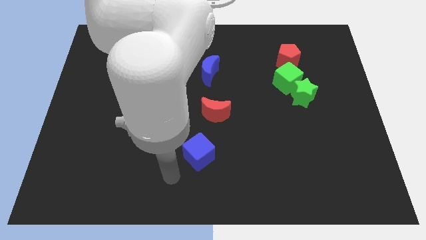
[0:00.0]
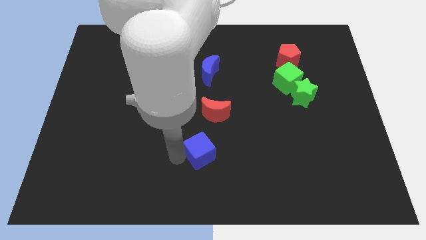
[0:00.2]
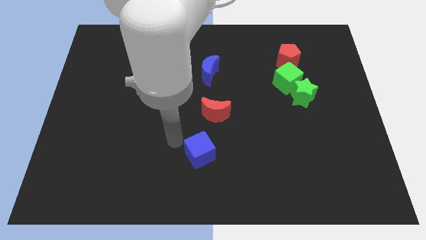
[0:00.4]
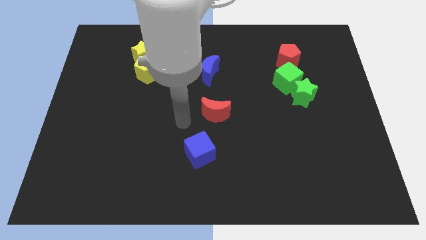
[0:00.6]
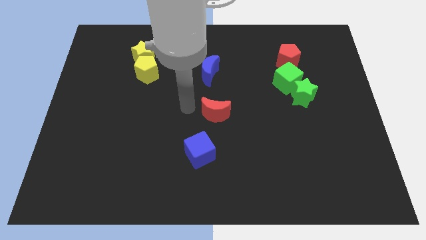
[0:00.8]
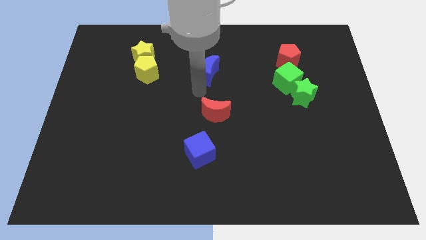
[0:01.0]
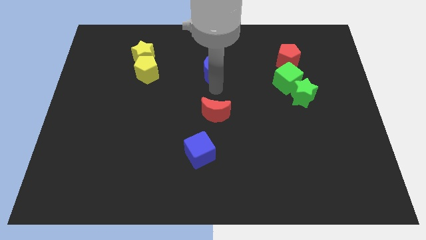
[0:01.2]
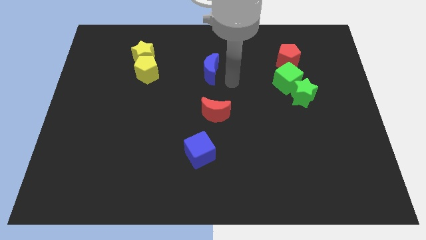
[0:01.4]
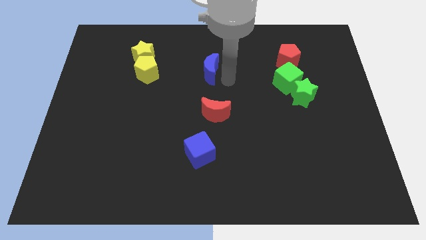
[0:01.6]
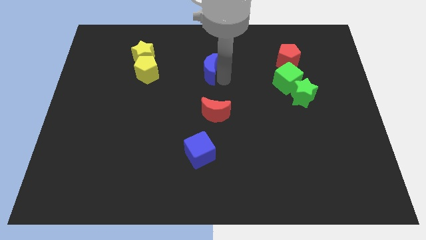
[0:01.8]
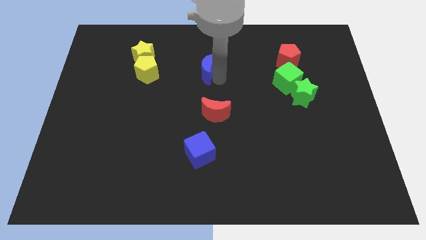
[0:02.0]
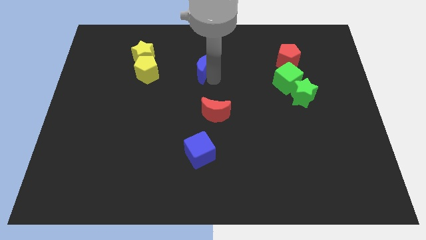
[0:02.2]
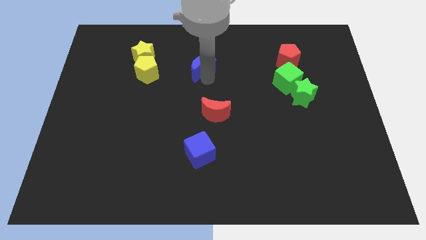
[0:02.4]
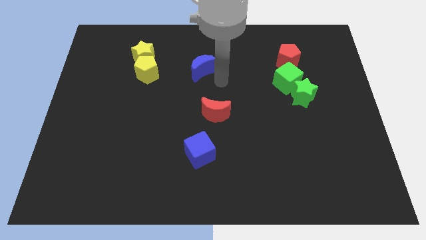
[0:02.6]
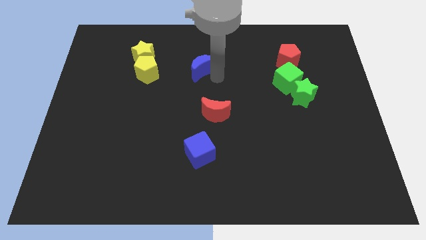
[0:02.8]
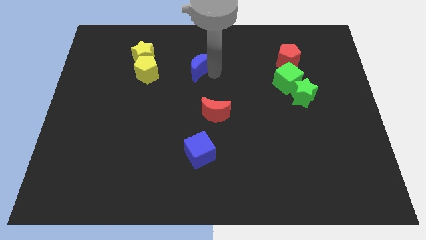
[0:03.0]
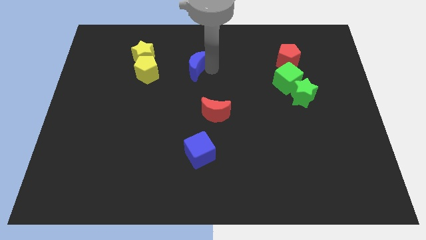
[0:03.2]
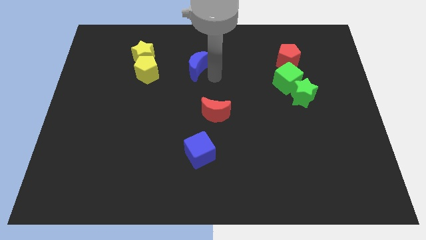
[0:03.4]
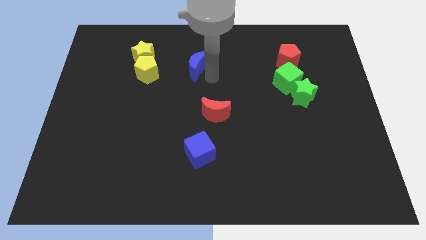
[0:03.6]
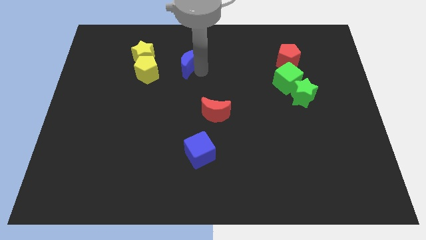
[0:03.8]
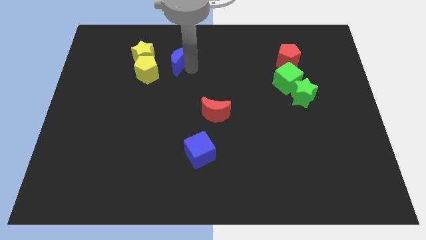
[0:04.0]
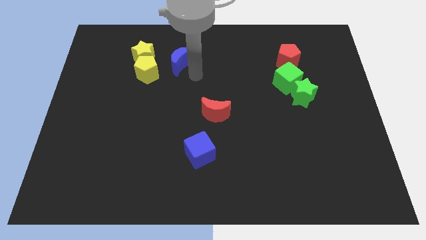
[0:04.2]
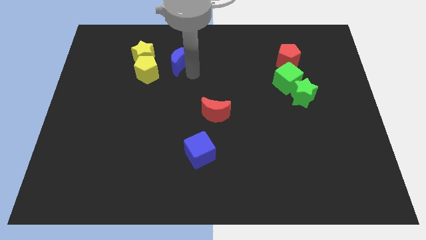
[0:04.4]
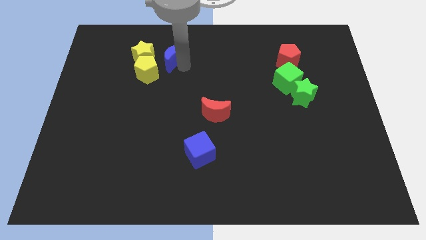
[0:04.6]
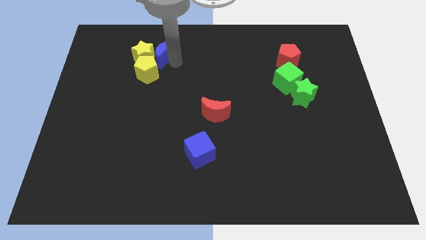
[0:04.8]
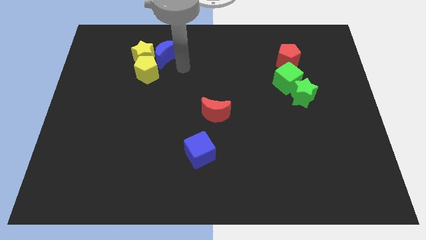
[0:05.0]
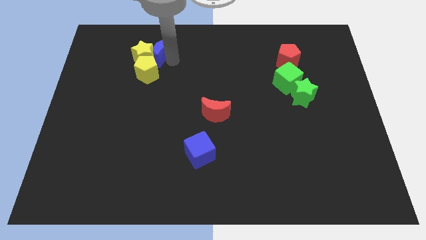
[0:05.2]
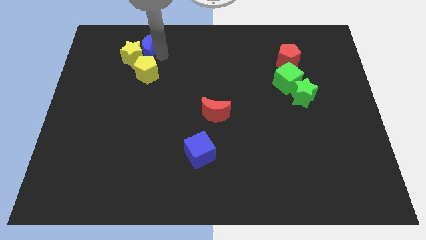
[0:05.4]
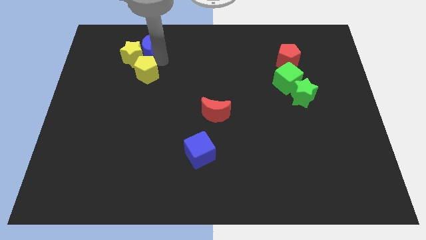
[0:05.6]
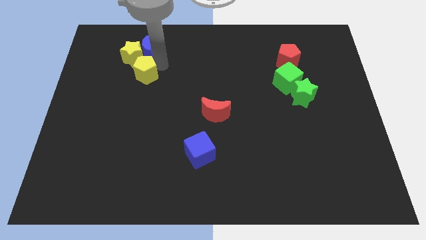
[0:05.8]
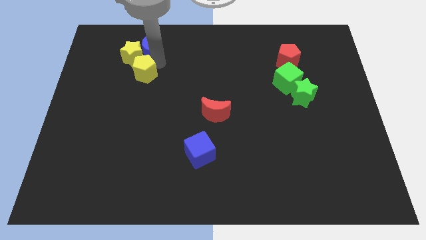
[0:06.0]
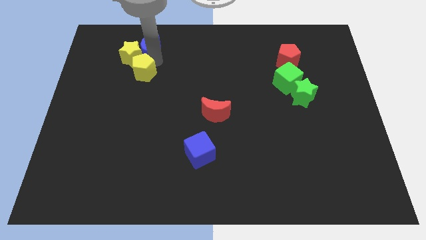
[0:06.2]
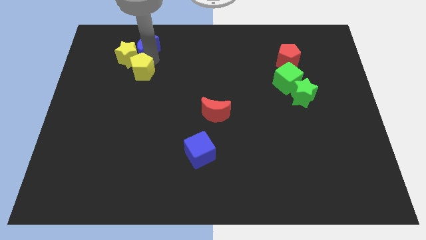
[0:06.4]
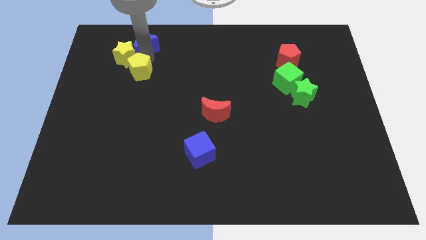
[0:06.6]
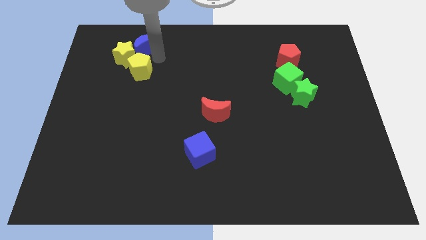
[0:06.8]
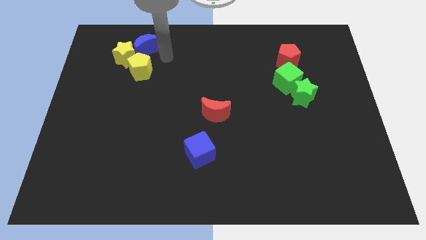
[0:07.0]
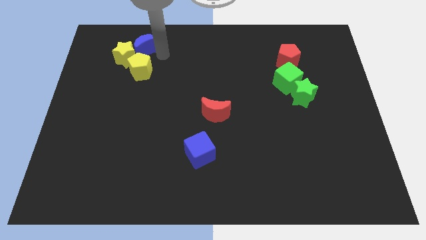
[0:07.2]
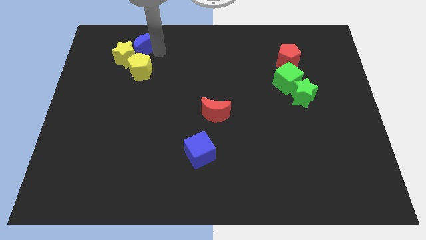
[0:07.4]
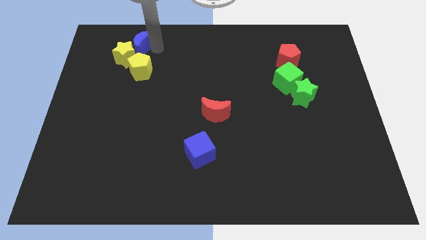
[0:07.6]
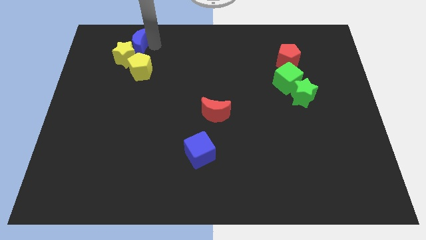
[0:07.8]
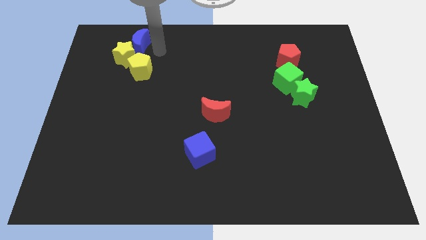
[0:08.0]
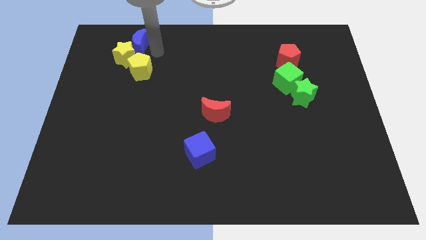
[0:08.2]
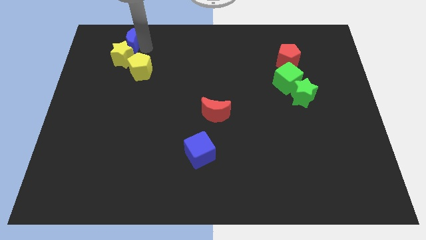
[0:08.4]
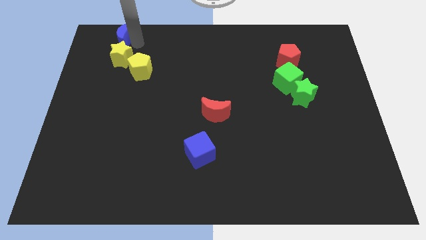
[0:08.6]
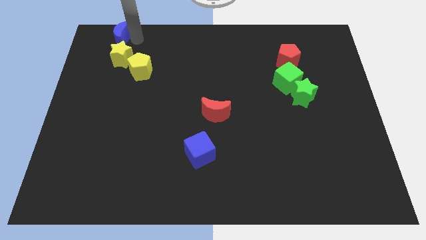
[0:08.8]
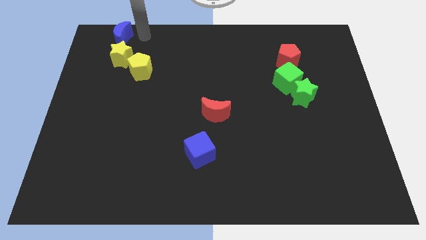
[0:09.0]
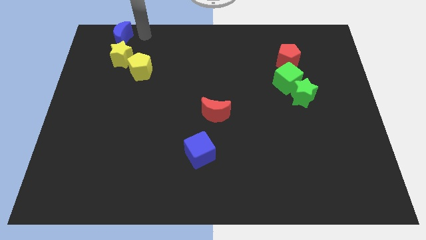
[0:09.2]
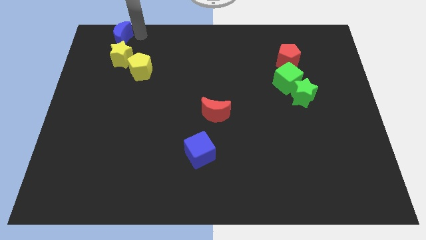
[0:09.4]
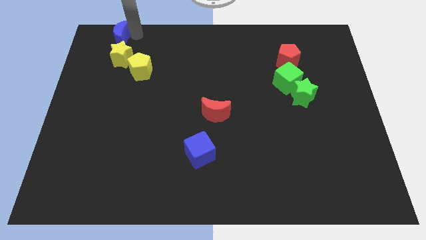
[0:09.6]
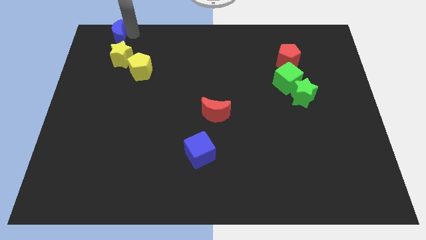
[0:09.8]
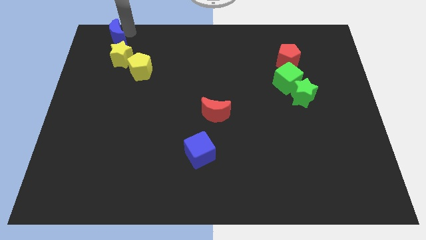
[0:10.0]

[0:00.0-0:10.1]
move the blue moon to the top left
